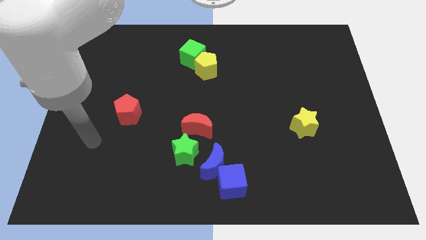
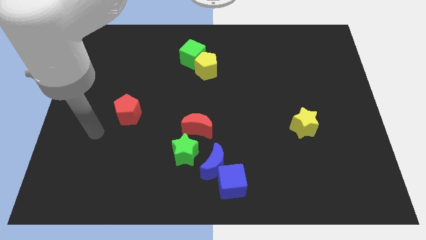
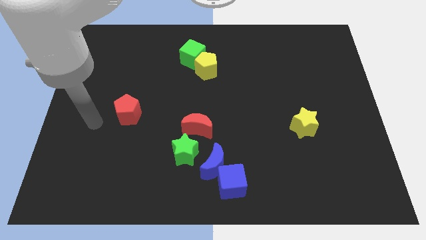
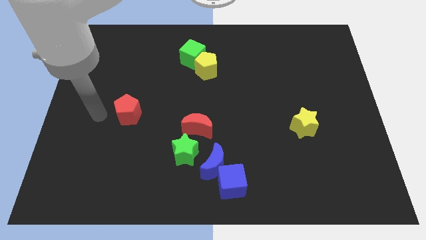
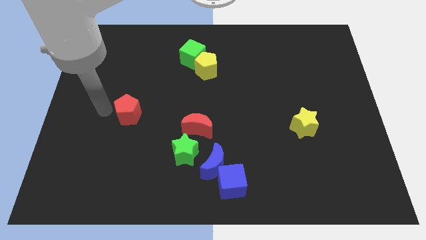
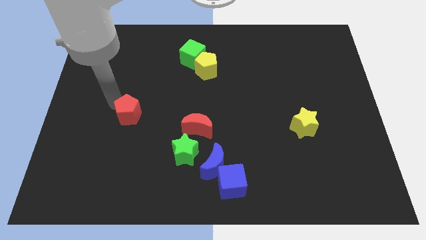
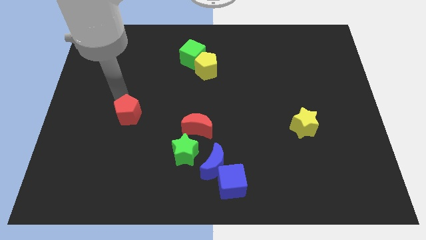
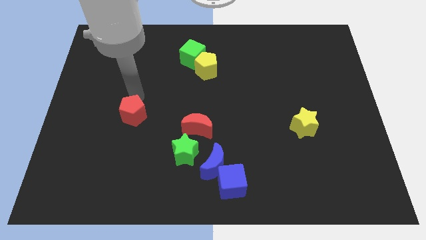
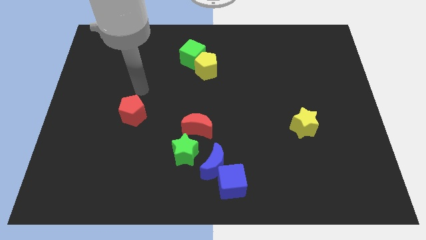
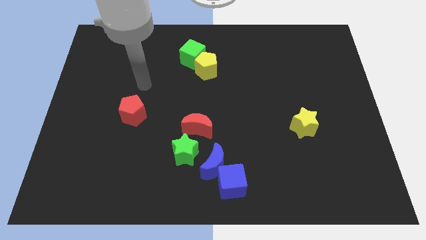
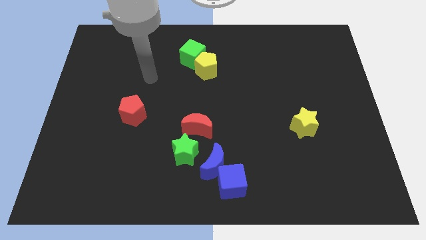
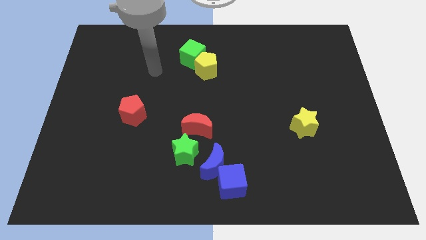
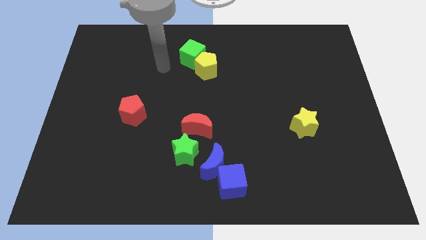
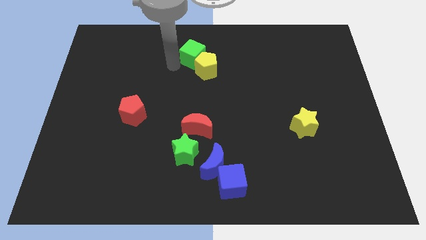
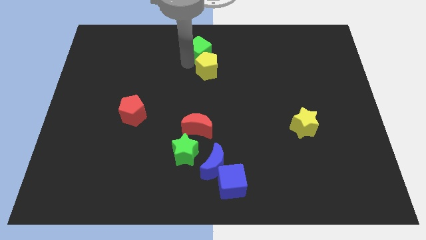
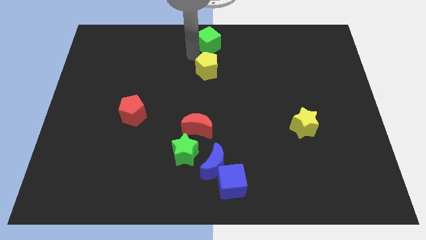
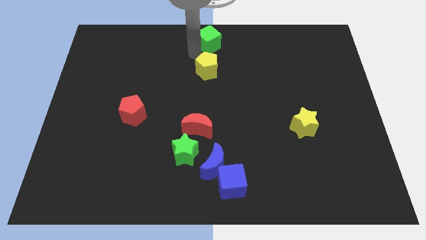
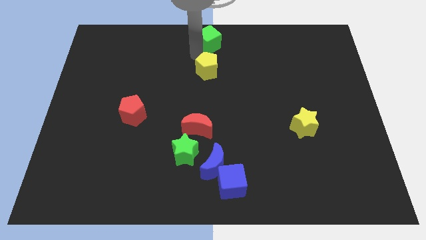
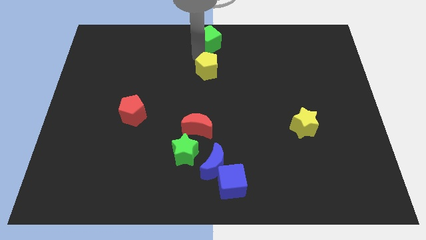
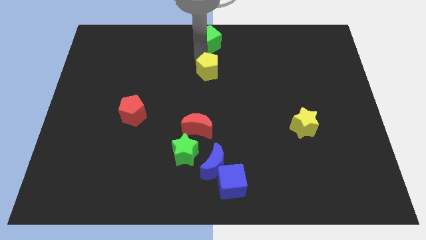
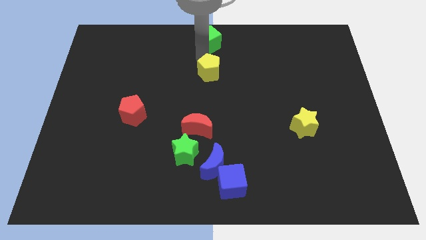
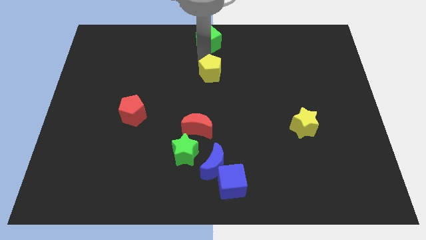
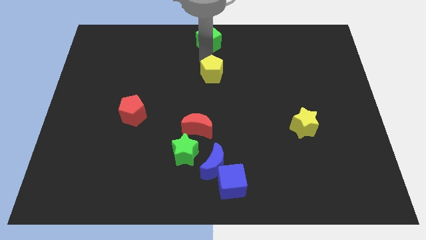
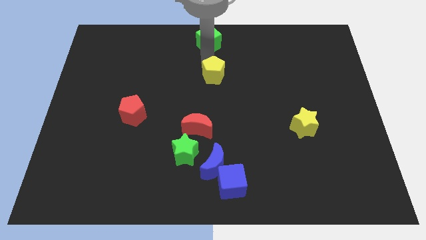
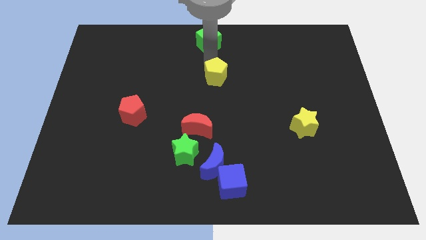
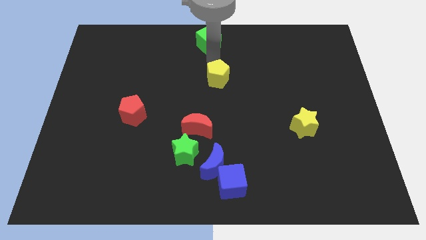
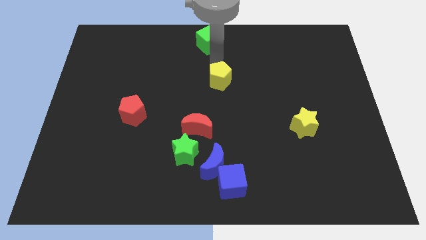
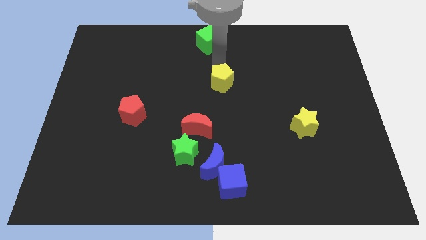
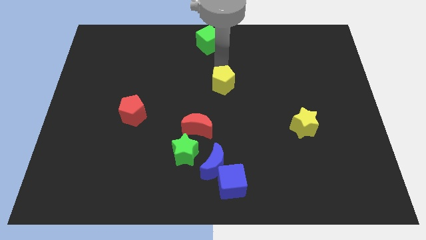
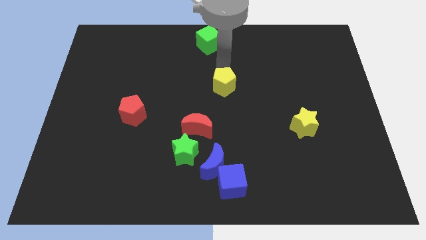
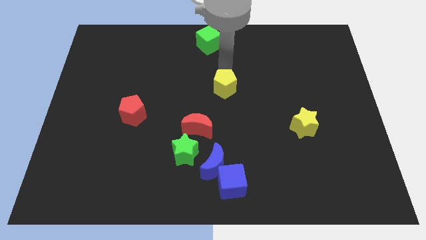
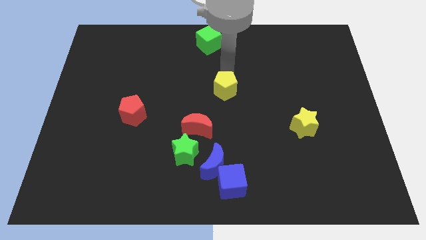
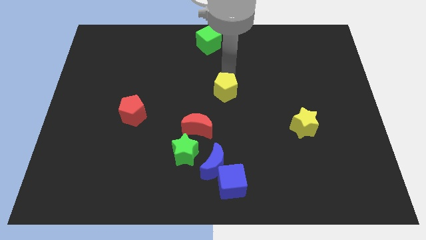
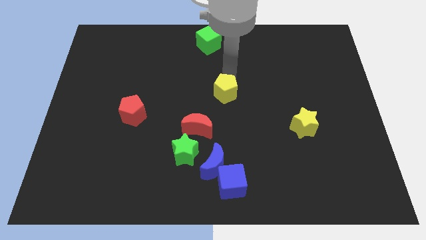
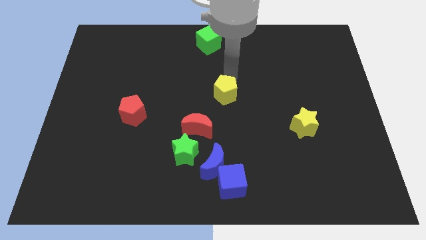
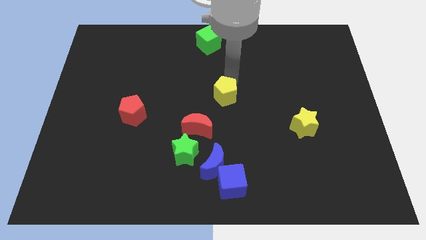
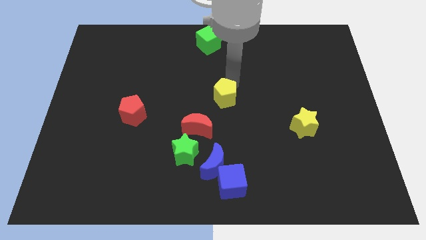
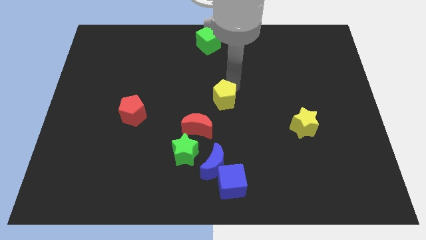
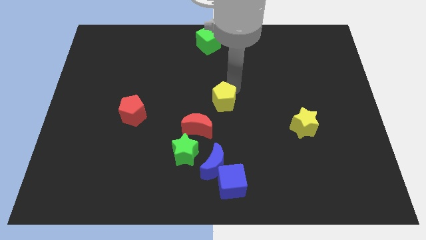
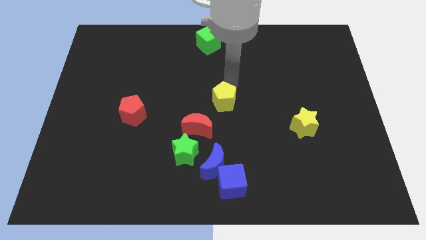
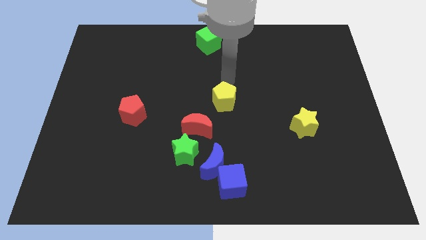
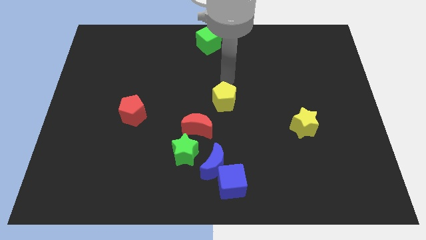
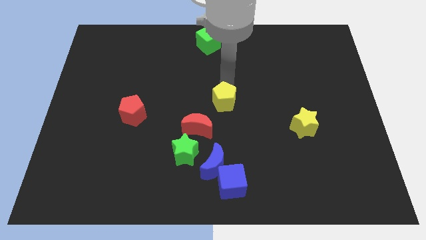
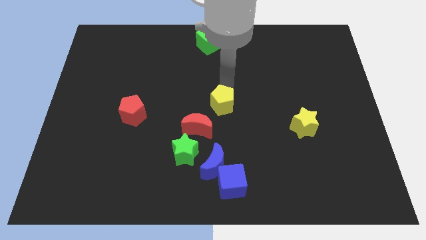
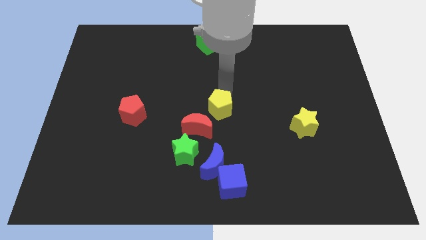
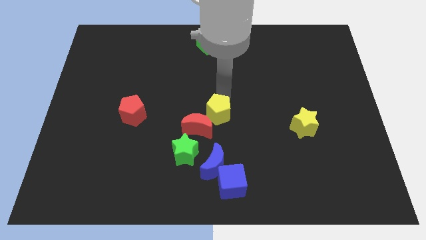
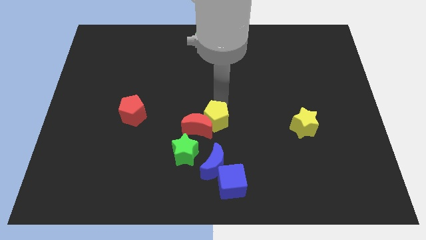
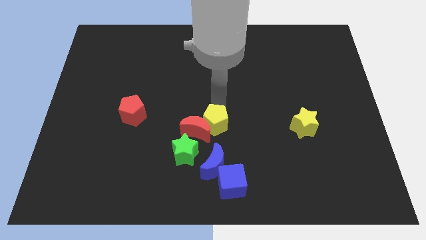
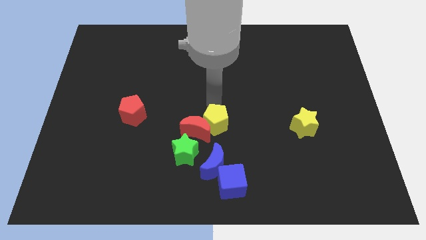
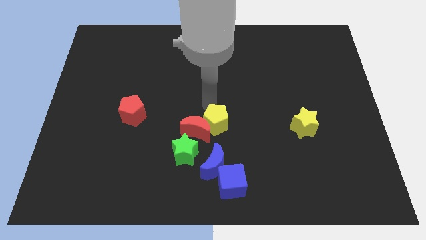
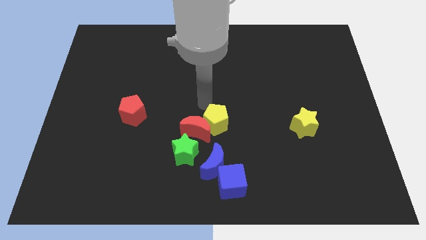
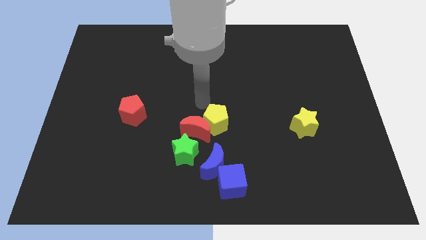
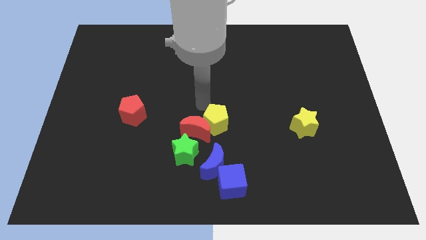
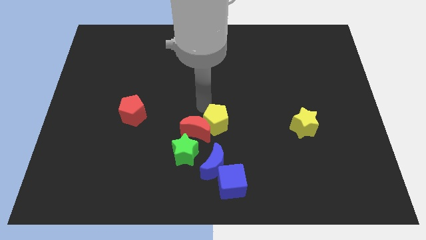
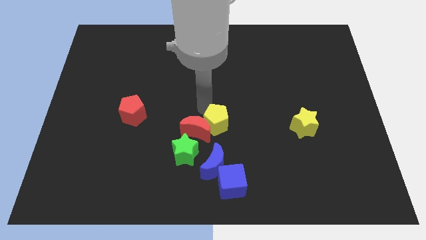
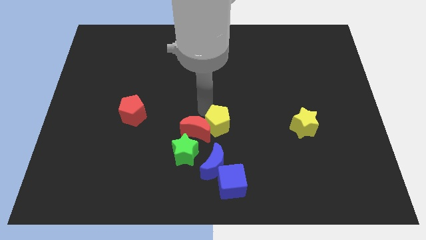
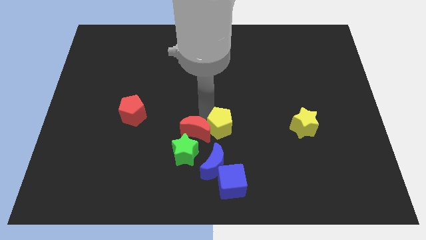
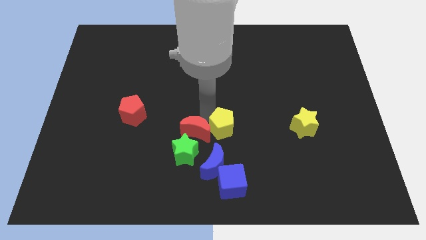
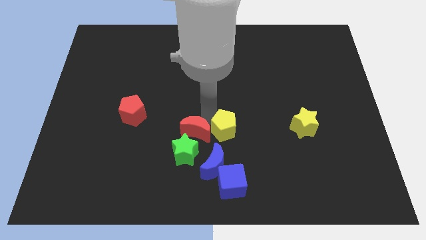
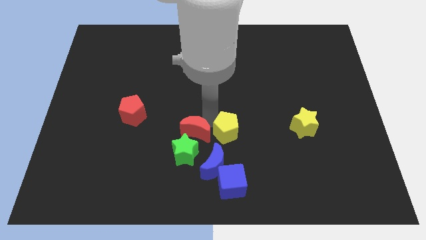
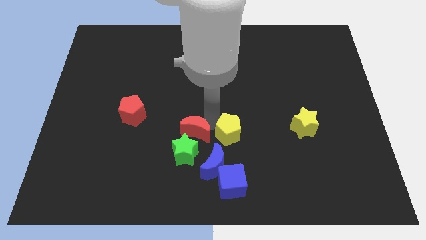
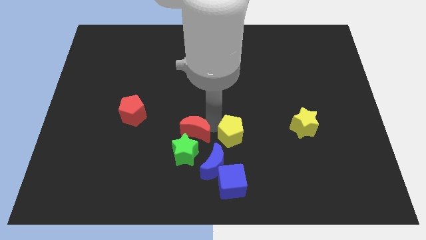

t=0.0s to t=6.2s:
put the yellow pentagon to the right side of the green star
